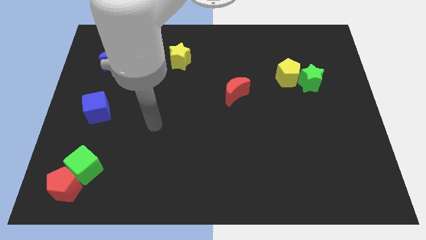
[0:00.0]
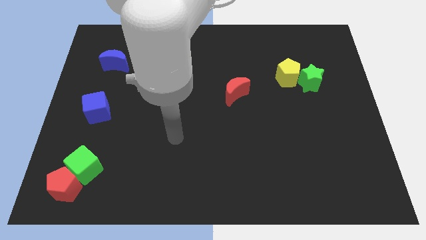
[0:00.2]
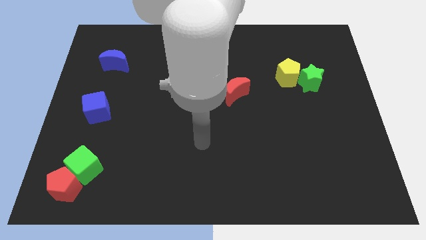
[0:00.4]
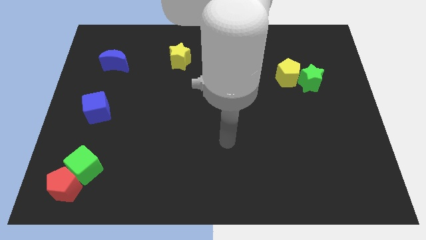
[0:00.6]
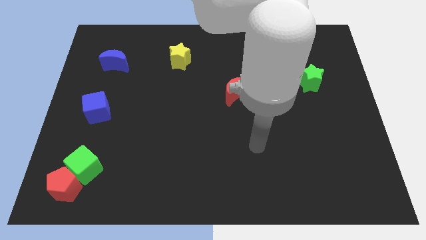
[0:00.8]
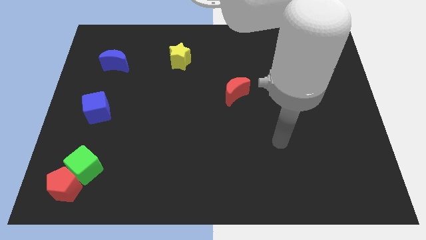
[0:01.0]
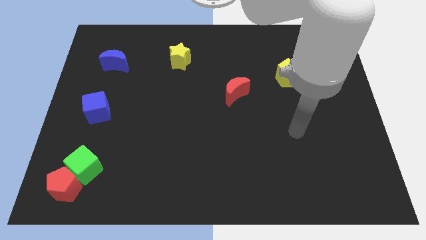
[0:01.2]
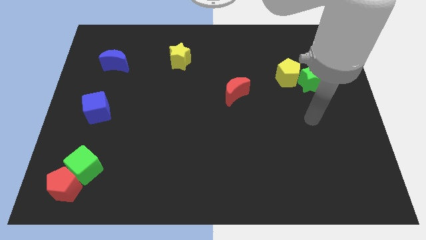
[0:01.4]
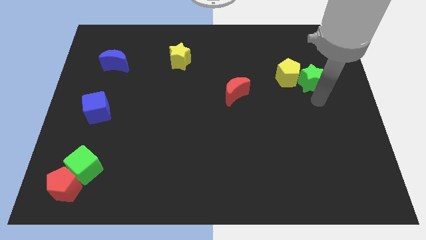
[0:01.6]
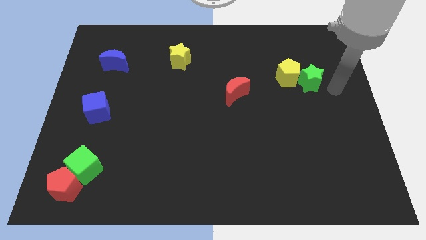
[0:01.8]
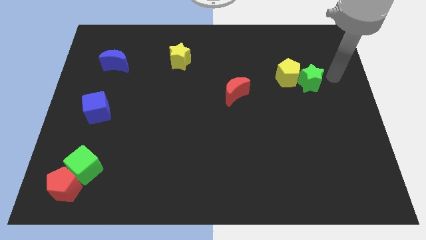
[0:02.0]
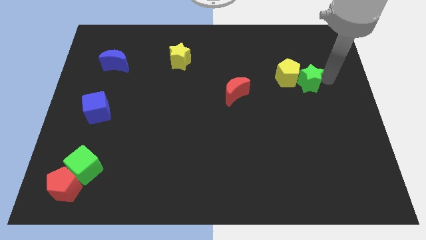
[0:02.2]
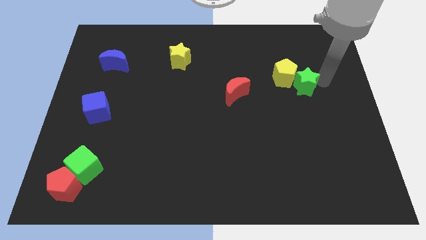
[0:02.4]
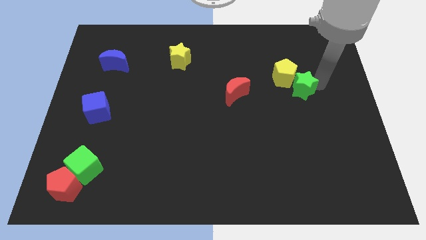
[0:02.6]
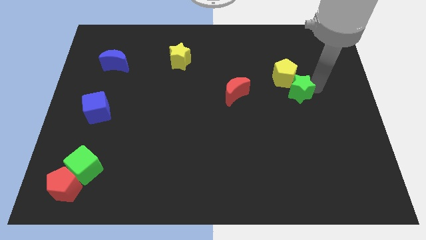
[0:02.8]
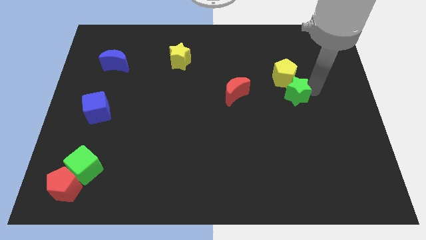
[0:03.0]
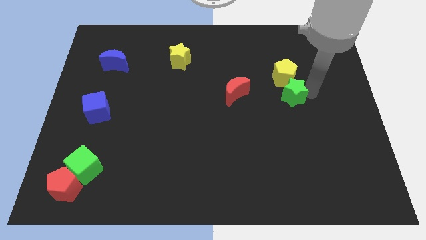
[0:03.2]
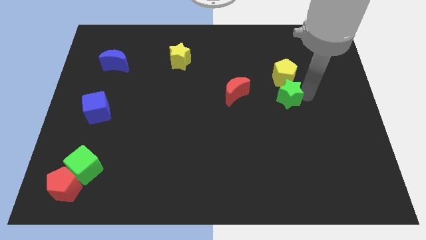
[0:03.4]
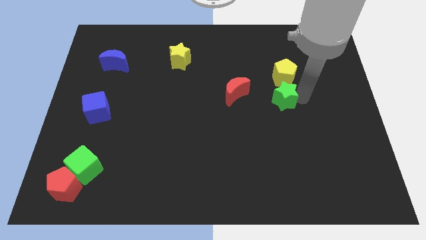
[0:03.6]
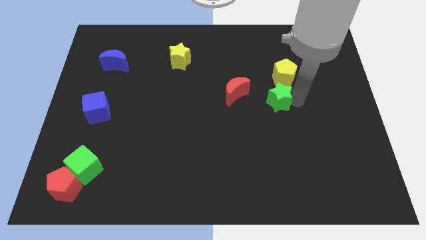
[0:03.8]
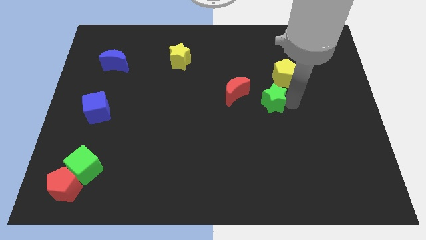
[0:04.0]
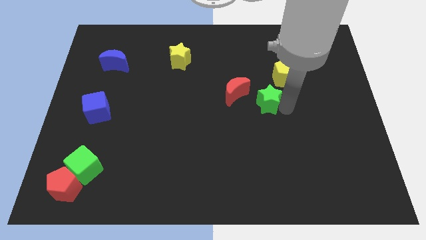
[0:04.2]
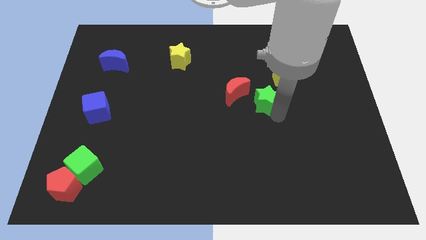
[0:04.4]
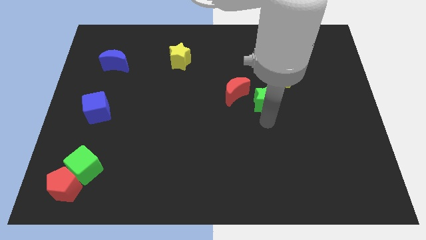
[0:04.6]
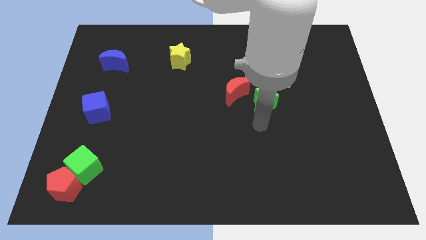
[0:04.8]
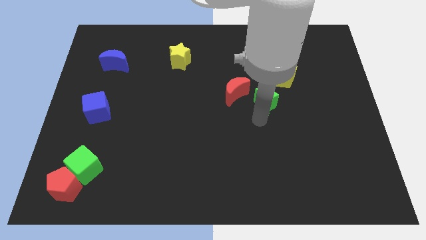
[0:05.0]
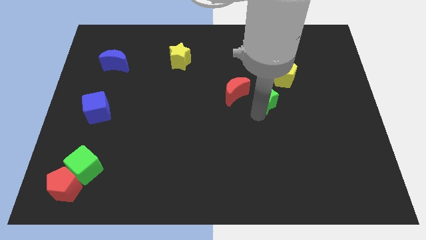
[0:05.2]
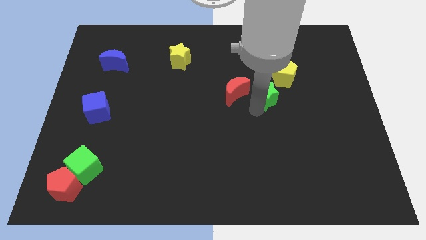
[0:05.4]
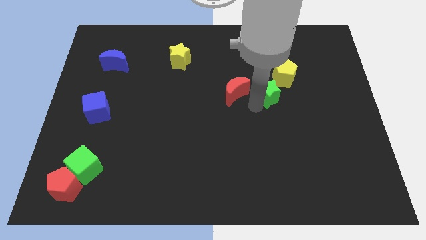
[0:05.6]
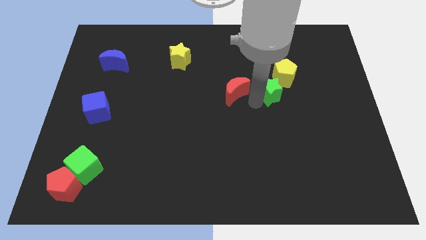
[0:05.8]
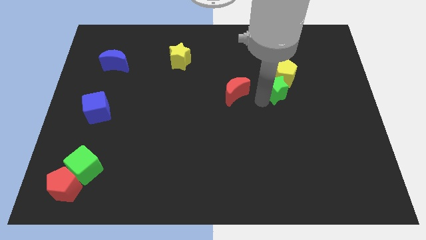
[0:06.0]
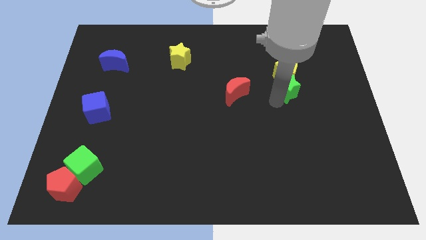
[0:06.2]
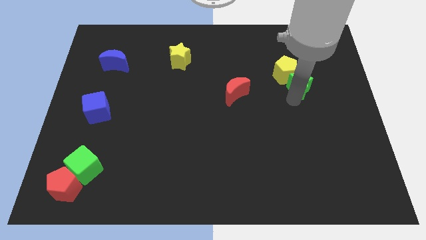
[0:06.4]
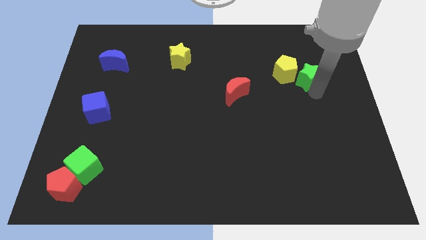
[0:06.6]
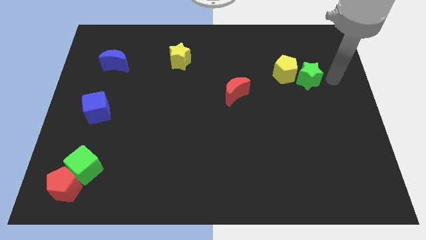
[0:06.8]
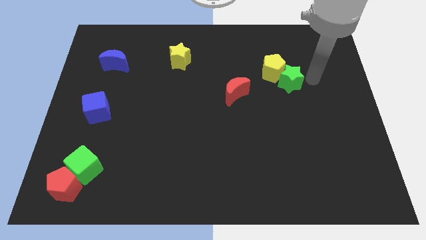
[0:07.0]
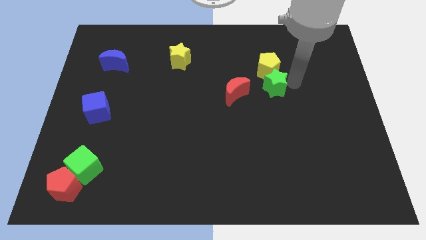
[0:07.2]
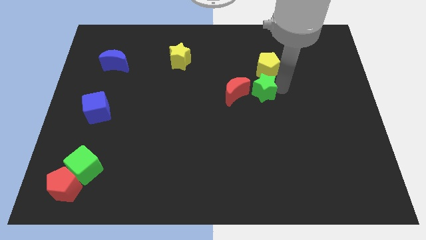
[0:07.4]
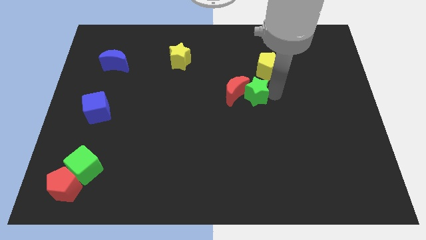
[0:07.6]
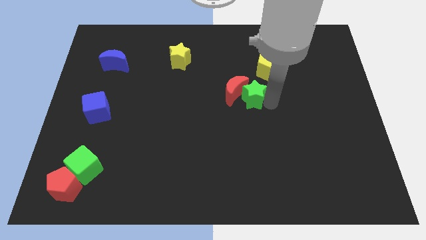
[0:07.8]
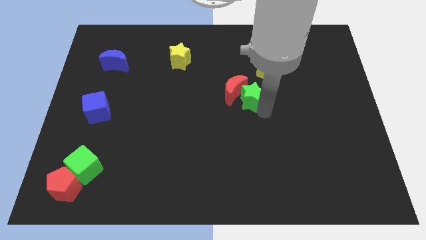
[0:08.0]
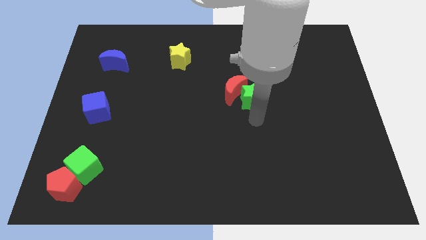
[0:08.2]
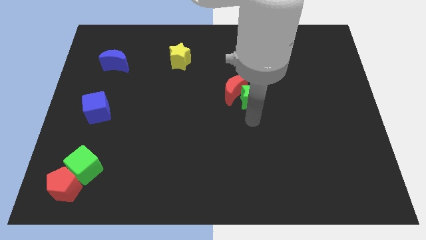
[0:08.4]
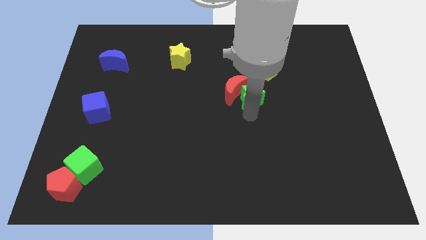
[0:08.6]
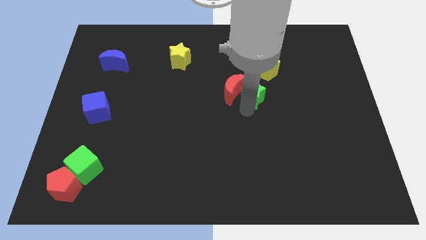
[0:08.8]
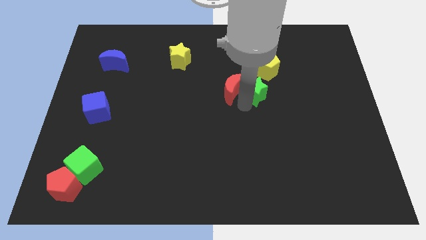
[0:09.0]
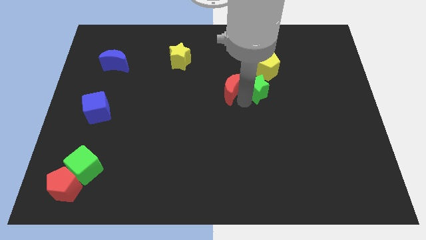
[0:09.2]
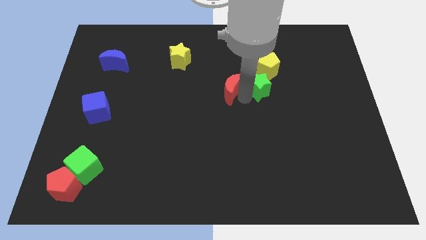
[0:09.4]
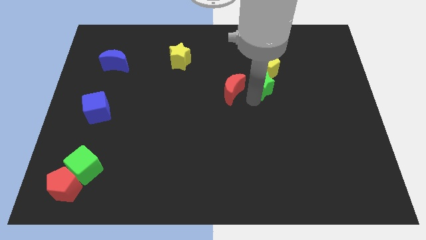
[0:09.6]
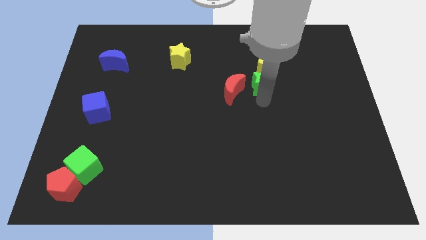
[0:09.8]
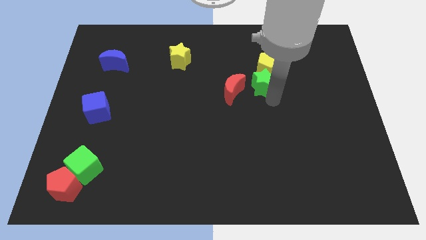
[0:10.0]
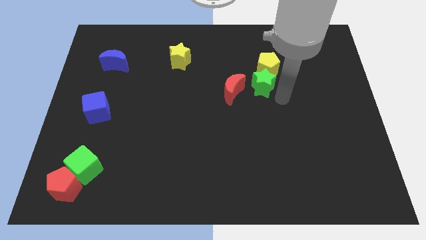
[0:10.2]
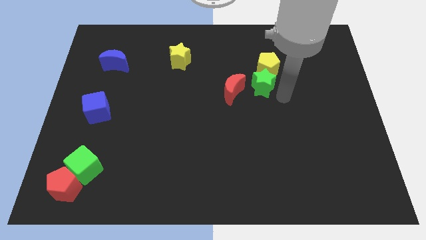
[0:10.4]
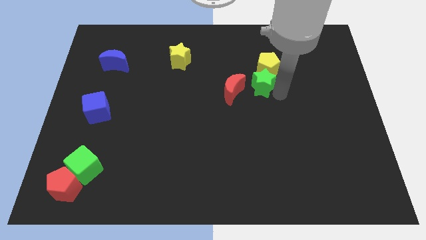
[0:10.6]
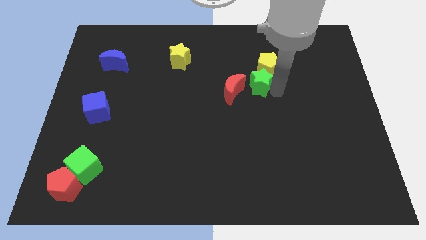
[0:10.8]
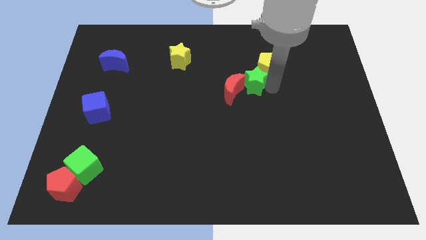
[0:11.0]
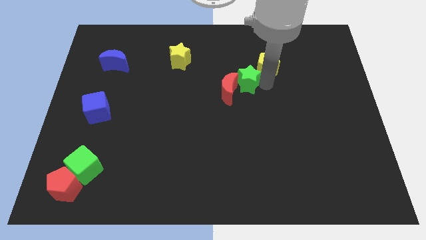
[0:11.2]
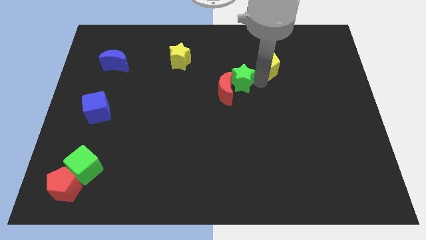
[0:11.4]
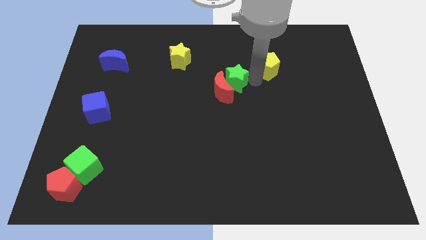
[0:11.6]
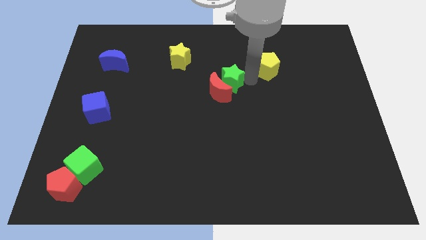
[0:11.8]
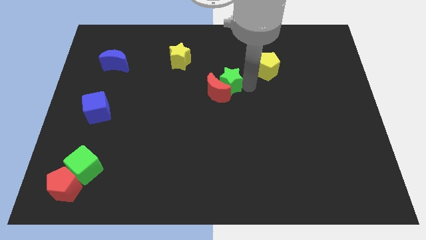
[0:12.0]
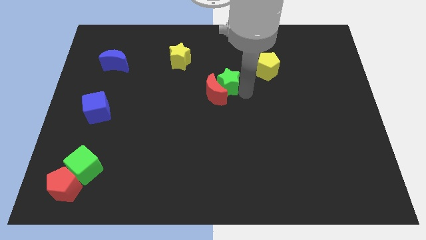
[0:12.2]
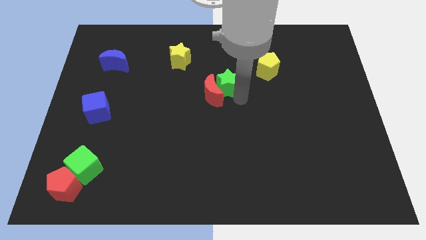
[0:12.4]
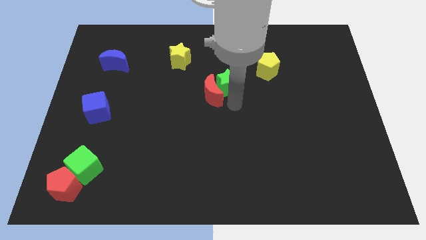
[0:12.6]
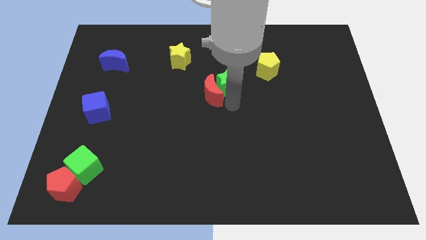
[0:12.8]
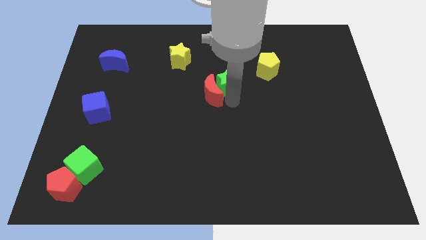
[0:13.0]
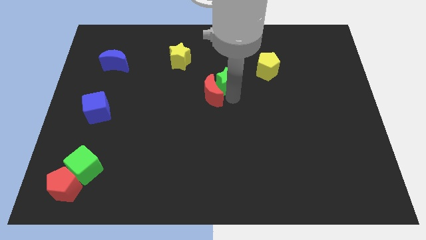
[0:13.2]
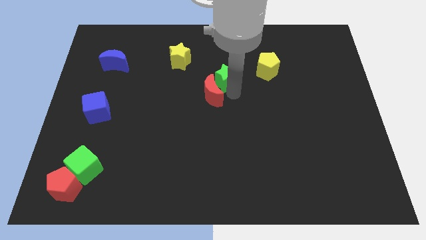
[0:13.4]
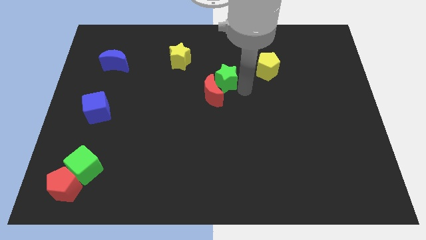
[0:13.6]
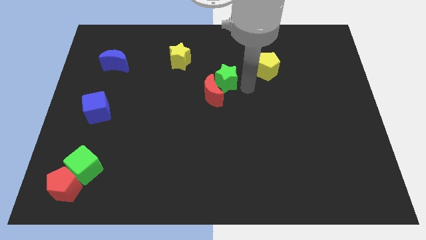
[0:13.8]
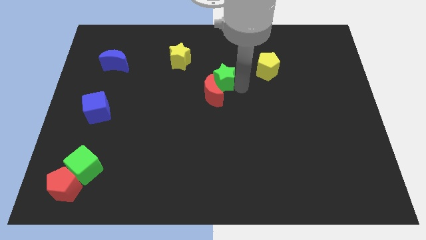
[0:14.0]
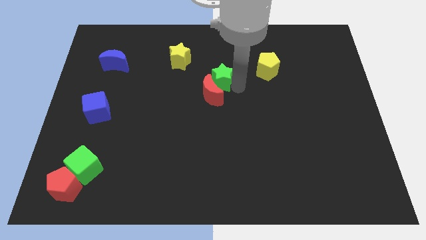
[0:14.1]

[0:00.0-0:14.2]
push the green star to the bottom right of the yellow star
